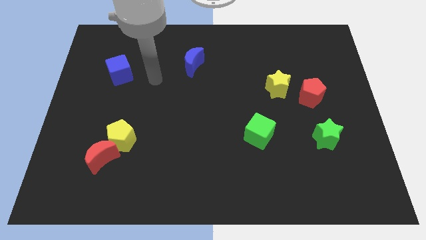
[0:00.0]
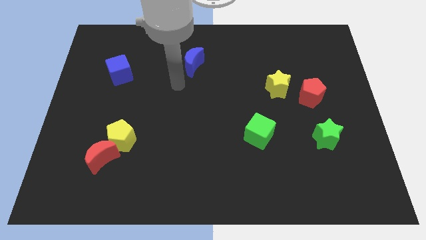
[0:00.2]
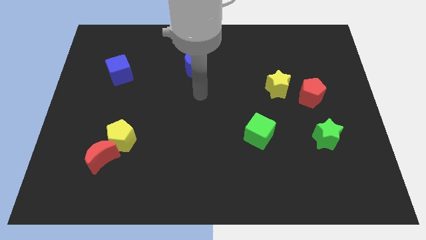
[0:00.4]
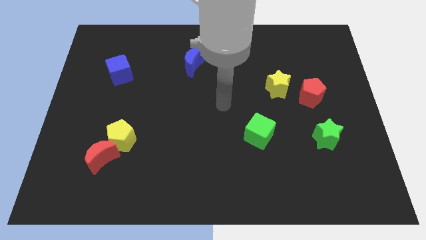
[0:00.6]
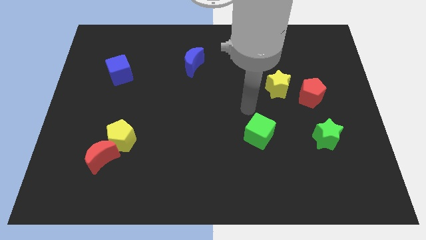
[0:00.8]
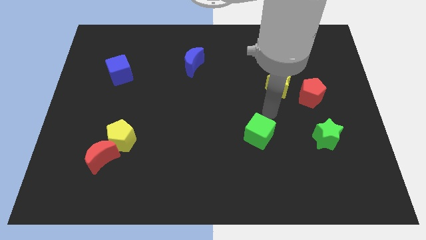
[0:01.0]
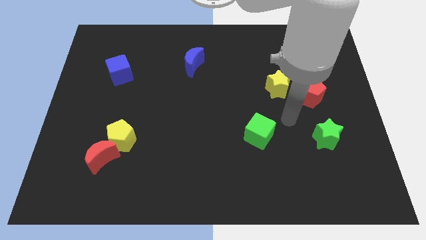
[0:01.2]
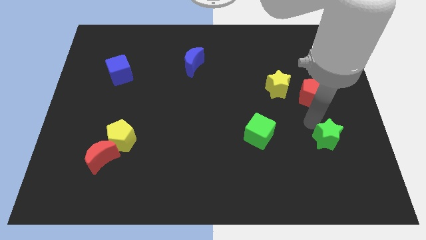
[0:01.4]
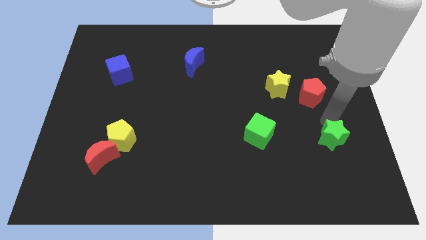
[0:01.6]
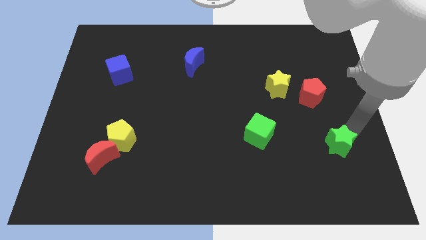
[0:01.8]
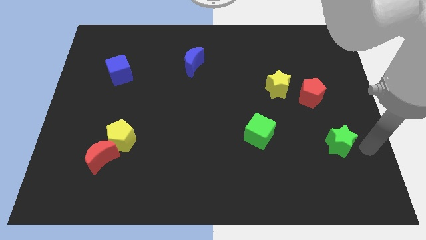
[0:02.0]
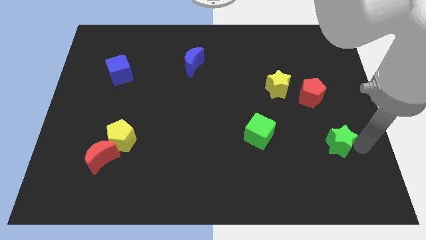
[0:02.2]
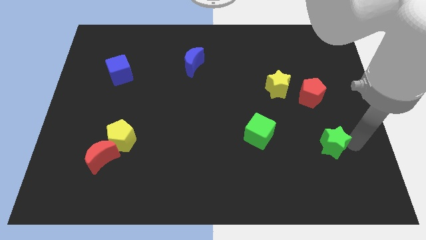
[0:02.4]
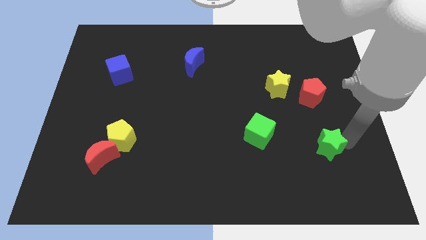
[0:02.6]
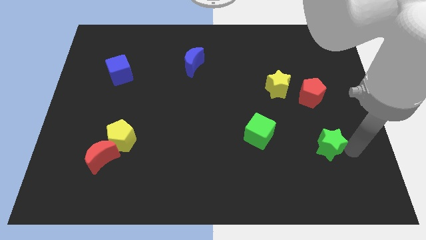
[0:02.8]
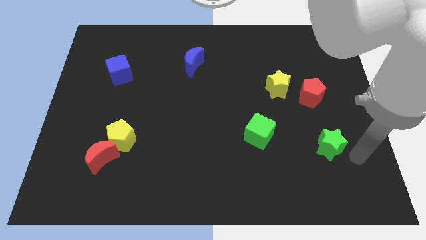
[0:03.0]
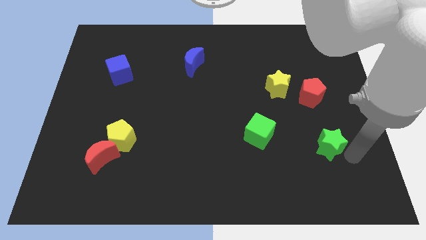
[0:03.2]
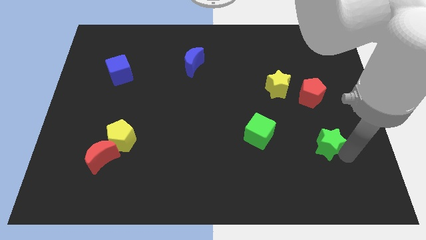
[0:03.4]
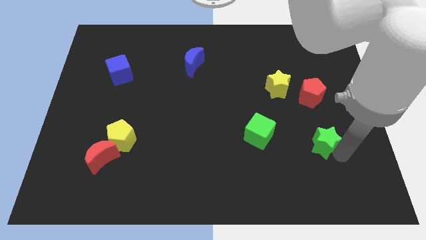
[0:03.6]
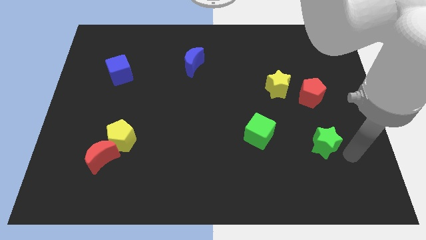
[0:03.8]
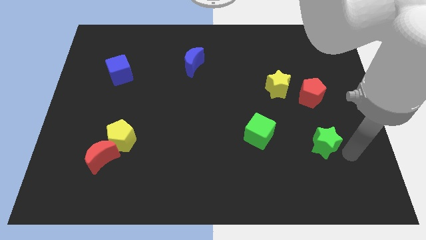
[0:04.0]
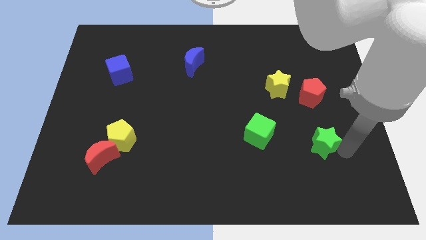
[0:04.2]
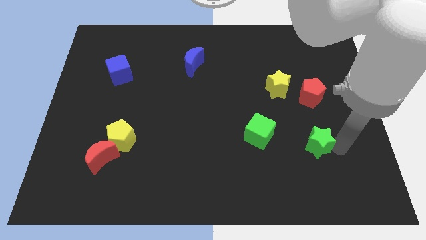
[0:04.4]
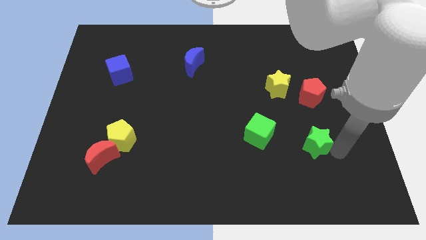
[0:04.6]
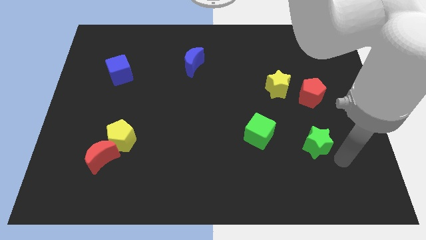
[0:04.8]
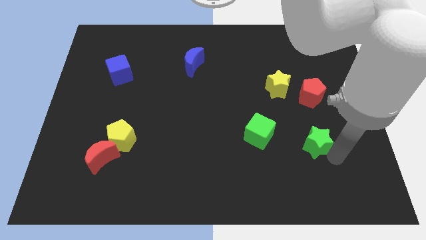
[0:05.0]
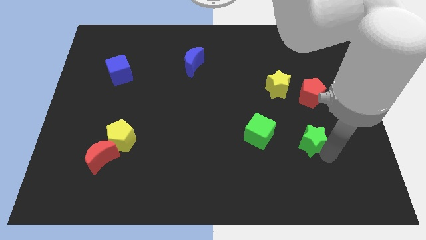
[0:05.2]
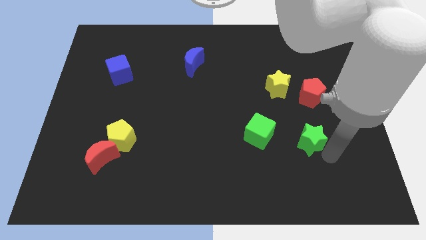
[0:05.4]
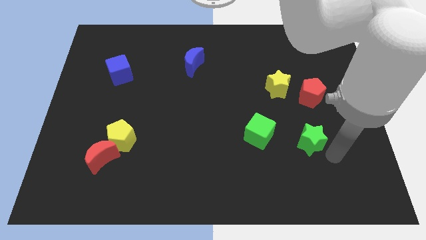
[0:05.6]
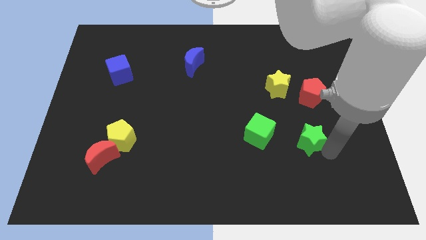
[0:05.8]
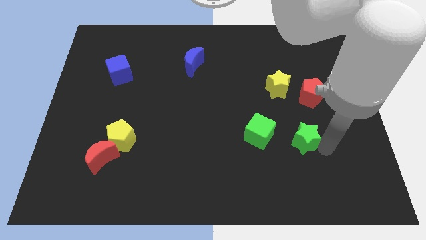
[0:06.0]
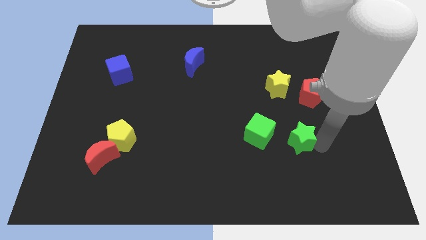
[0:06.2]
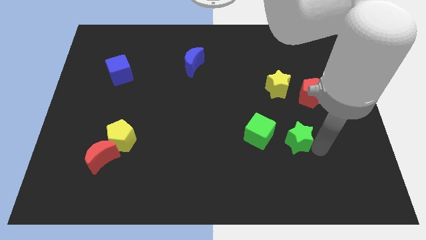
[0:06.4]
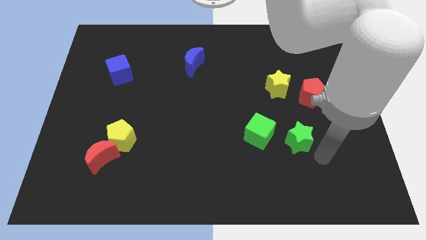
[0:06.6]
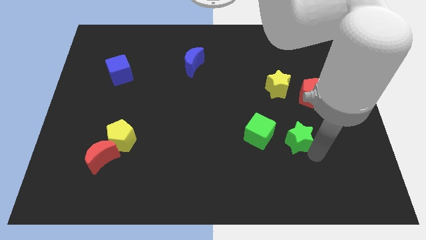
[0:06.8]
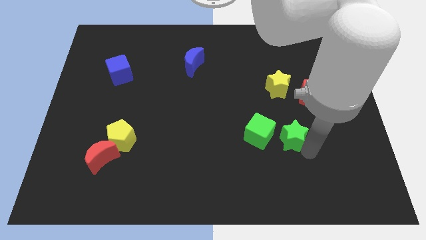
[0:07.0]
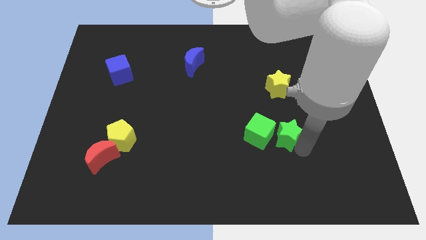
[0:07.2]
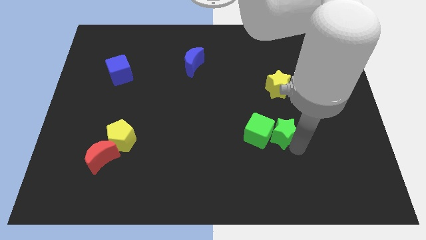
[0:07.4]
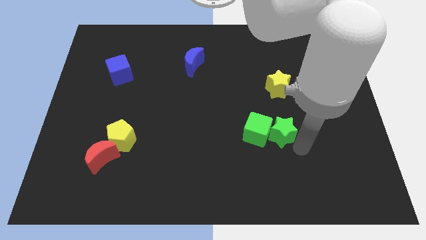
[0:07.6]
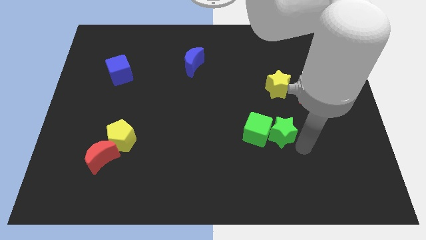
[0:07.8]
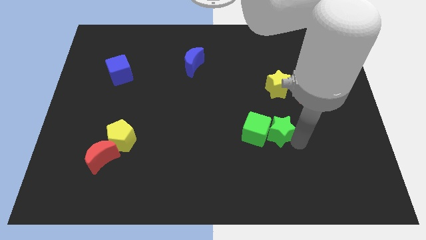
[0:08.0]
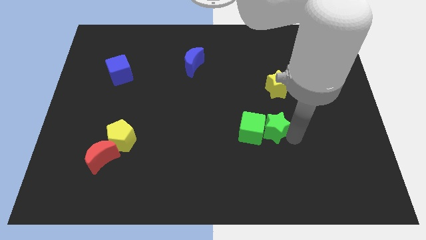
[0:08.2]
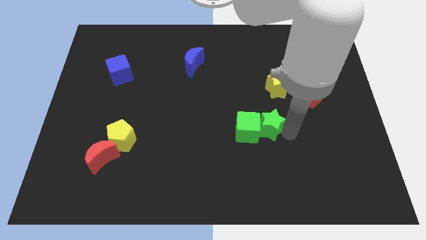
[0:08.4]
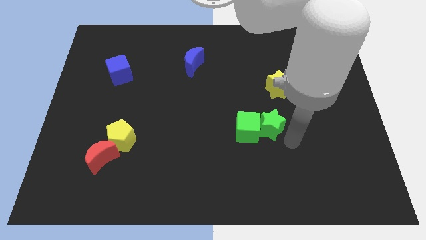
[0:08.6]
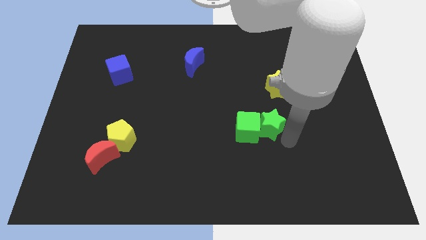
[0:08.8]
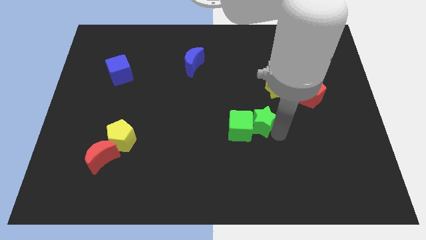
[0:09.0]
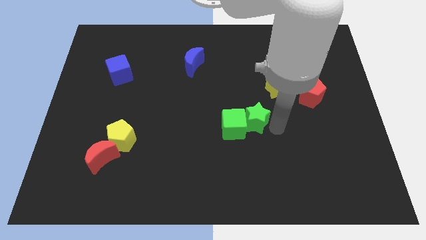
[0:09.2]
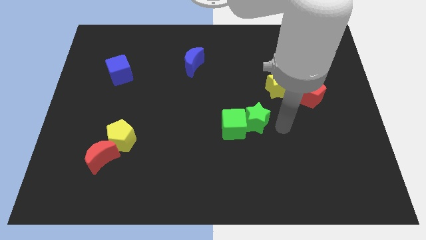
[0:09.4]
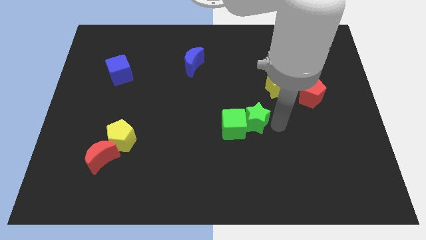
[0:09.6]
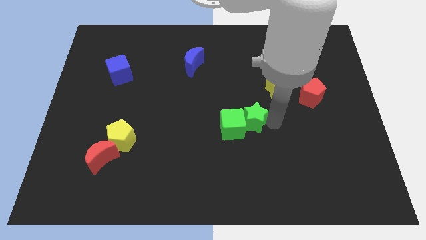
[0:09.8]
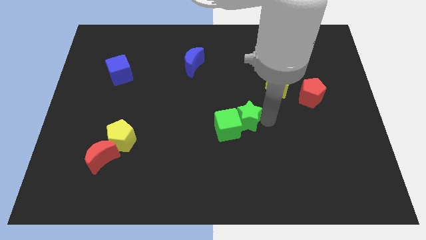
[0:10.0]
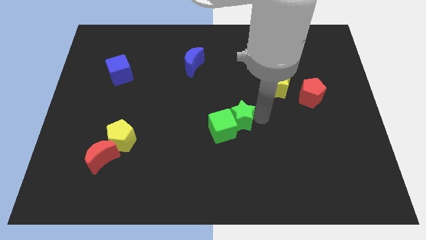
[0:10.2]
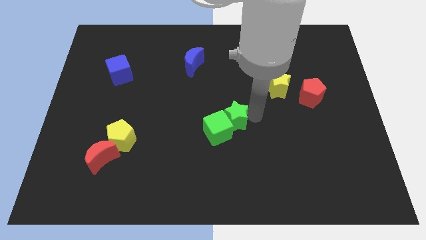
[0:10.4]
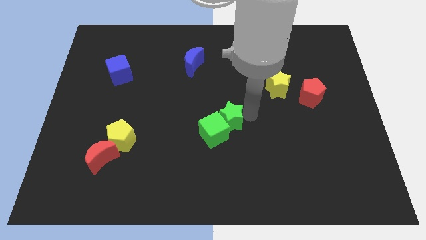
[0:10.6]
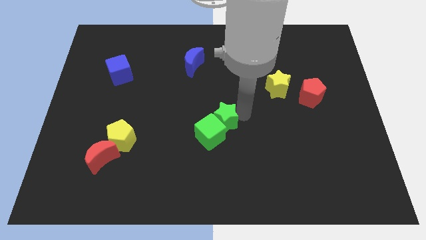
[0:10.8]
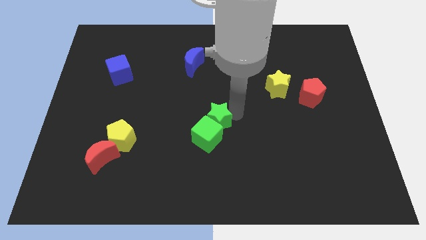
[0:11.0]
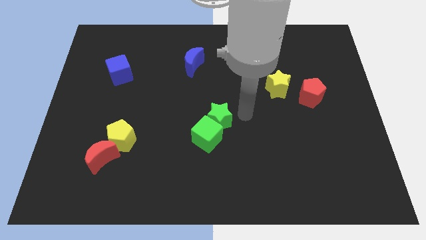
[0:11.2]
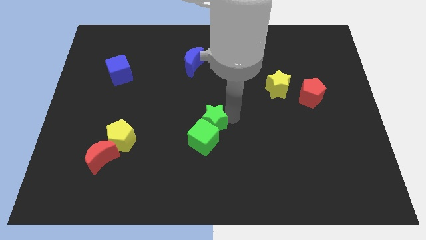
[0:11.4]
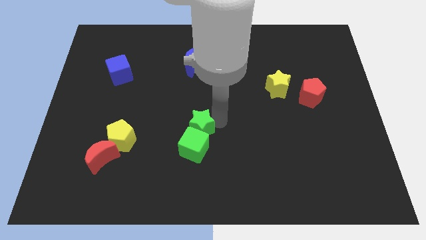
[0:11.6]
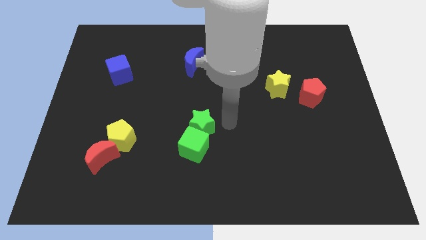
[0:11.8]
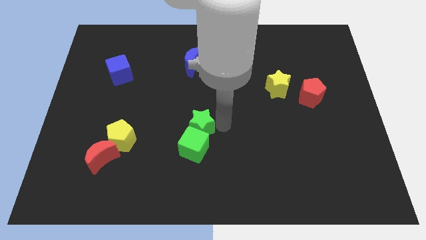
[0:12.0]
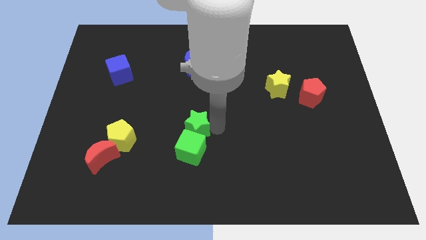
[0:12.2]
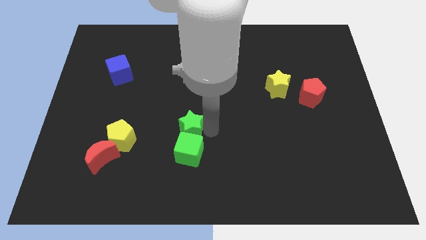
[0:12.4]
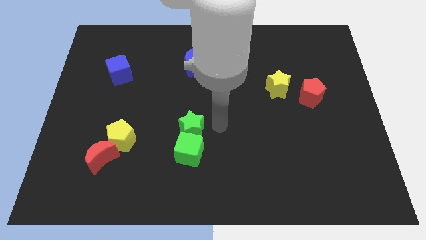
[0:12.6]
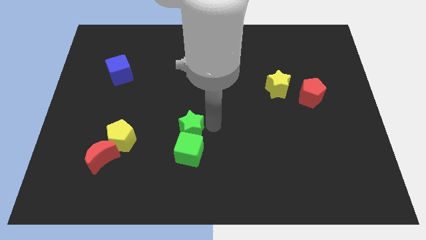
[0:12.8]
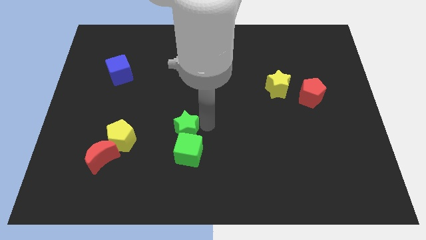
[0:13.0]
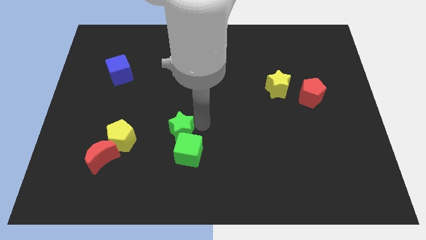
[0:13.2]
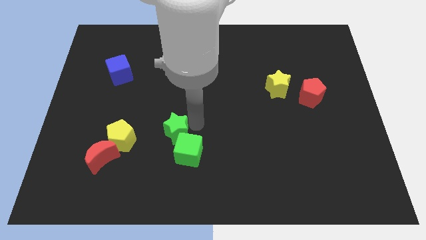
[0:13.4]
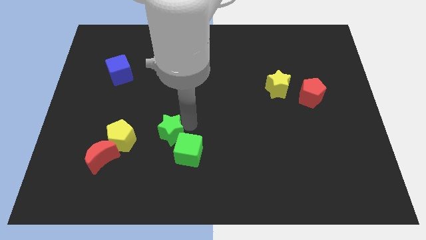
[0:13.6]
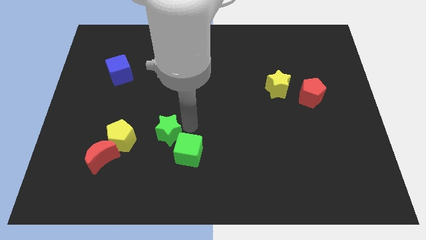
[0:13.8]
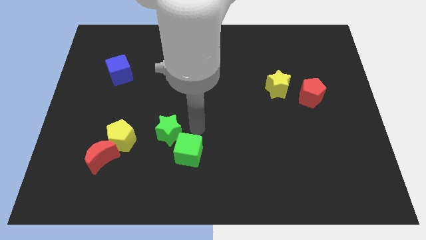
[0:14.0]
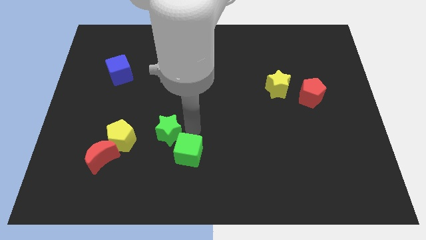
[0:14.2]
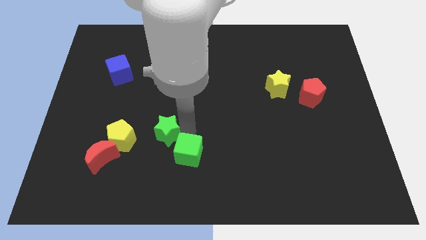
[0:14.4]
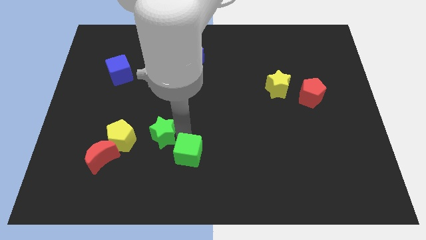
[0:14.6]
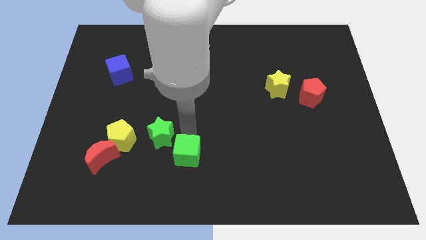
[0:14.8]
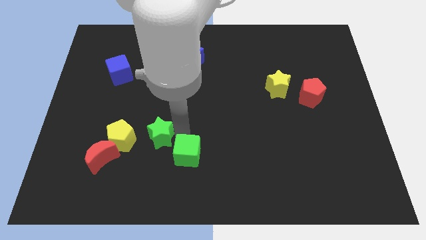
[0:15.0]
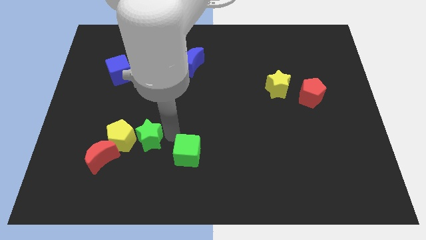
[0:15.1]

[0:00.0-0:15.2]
slide the green star to the yellow pentagon

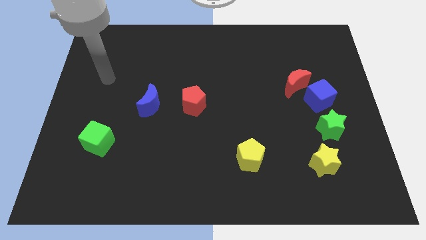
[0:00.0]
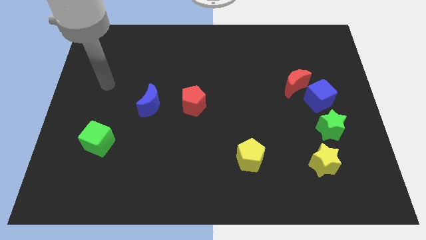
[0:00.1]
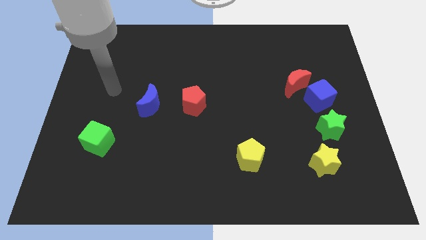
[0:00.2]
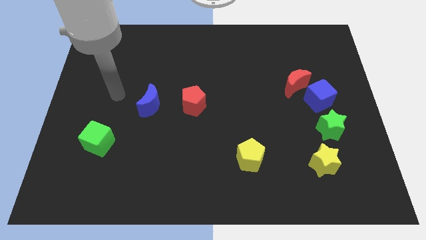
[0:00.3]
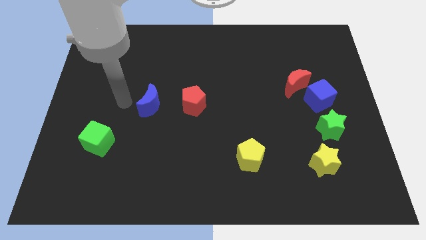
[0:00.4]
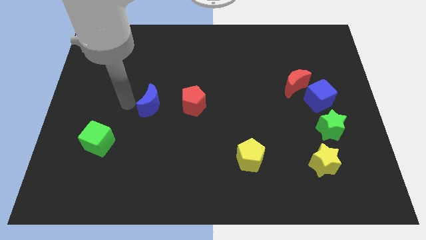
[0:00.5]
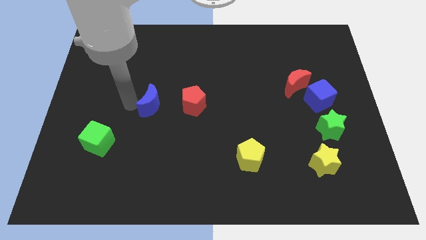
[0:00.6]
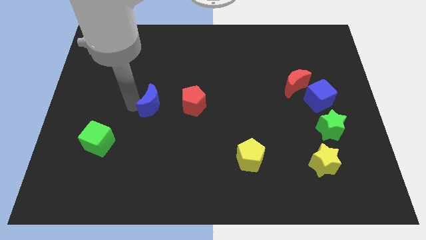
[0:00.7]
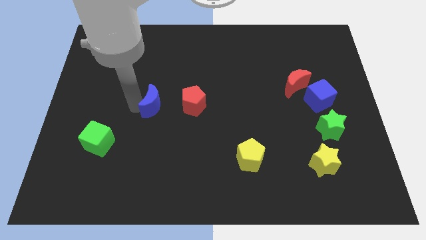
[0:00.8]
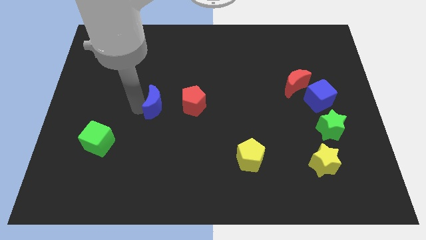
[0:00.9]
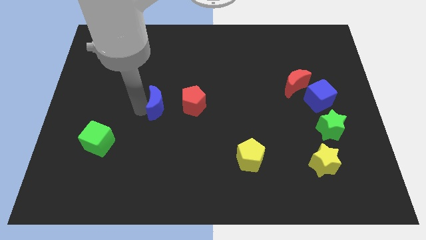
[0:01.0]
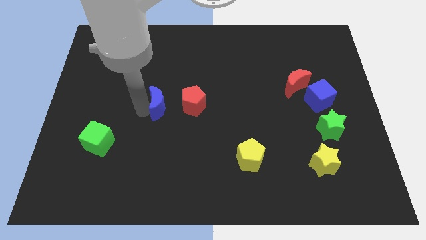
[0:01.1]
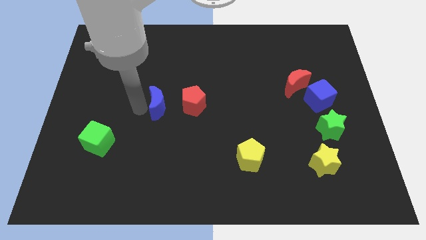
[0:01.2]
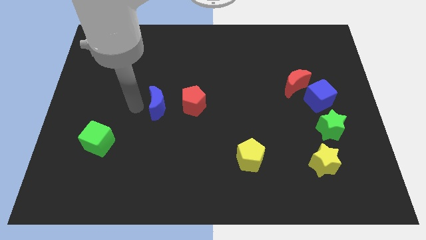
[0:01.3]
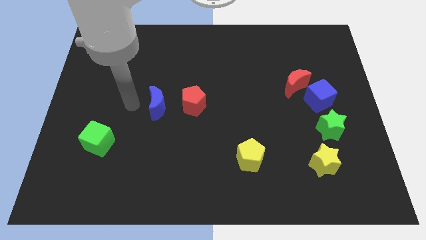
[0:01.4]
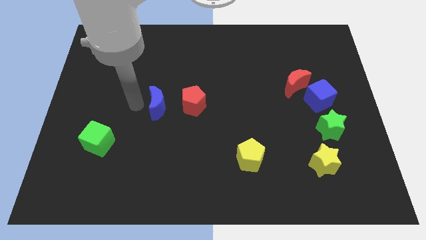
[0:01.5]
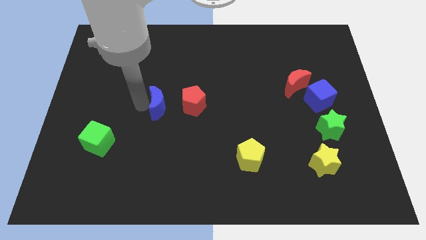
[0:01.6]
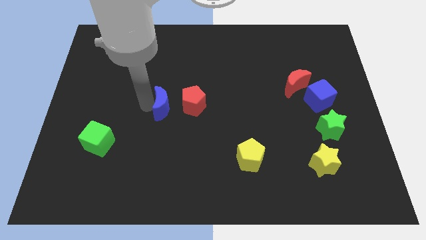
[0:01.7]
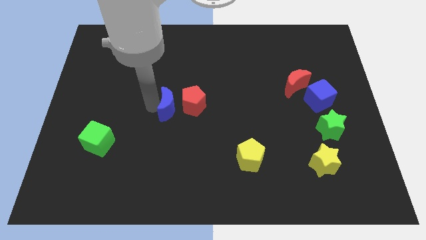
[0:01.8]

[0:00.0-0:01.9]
put the blue moon to the red pentagon
